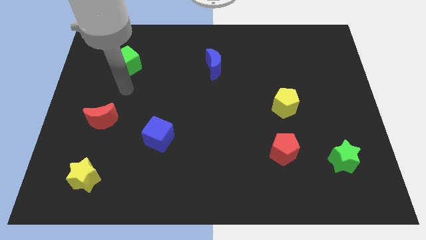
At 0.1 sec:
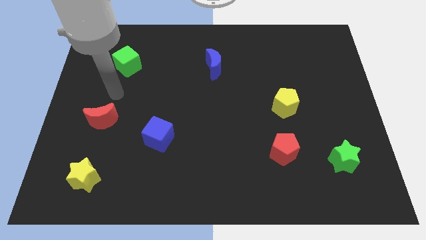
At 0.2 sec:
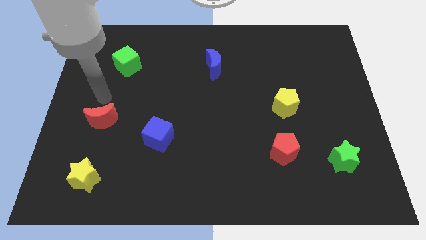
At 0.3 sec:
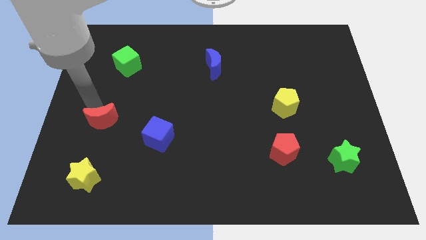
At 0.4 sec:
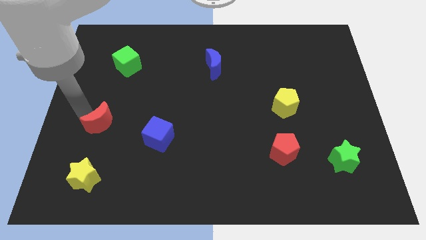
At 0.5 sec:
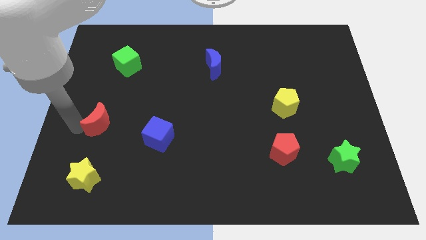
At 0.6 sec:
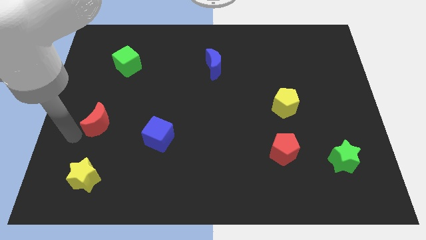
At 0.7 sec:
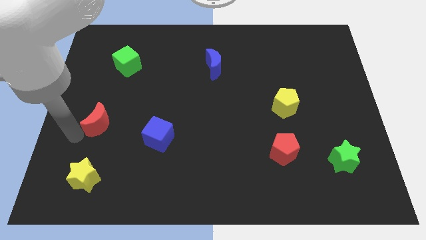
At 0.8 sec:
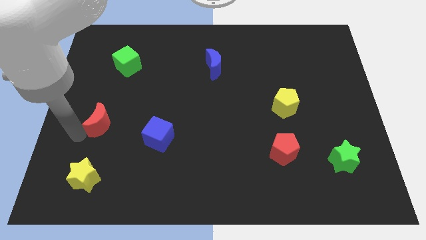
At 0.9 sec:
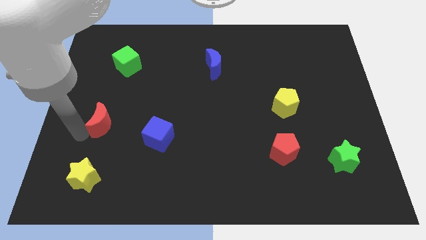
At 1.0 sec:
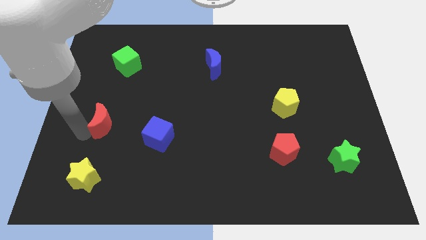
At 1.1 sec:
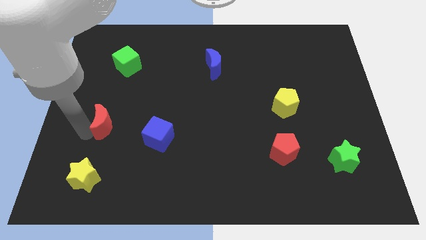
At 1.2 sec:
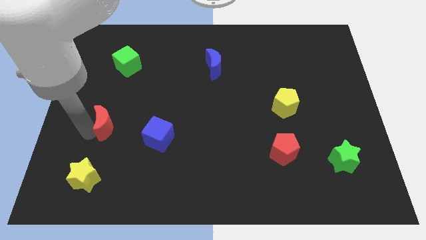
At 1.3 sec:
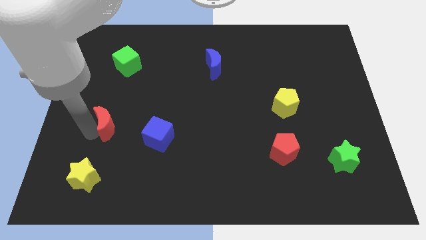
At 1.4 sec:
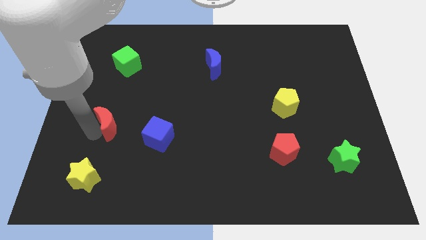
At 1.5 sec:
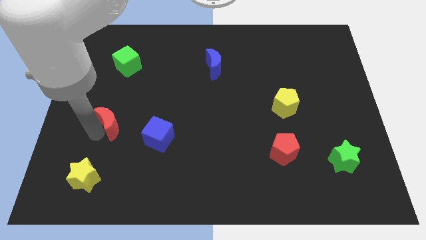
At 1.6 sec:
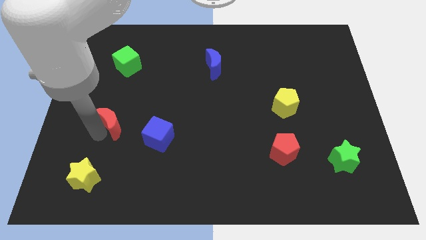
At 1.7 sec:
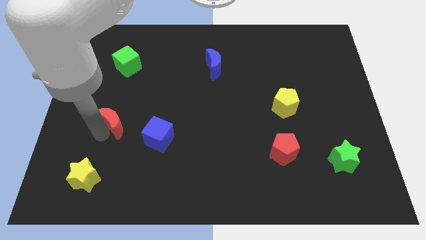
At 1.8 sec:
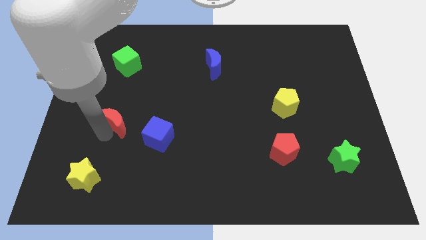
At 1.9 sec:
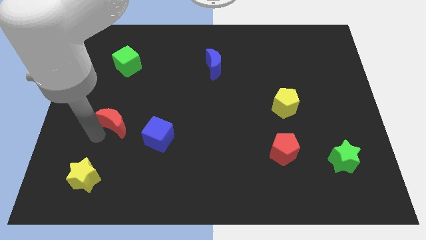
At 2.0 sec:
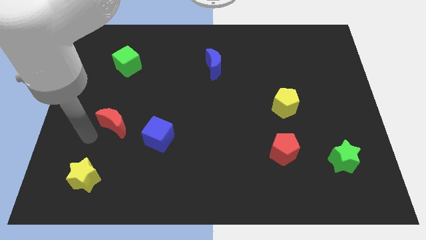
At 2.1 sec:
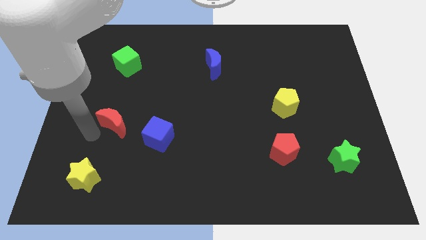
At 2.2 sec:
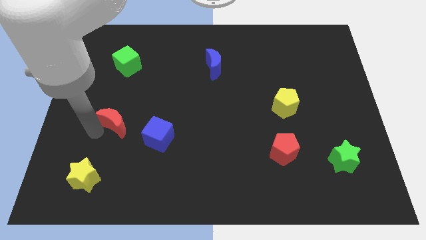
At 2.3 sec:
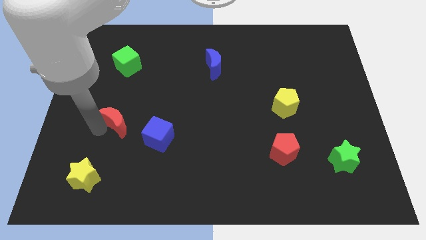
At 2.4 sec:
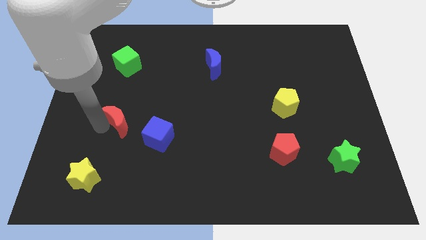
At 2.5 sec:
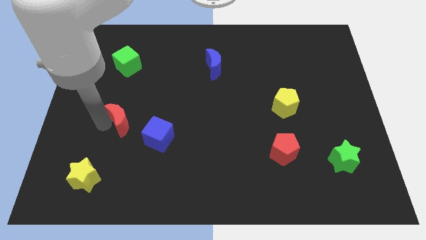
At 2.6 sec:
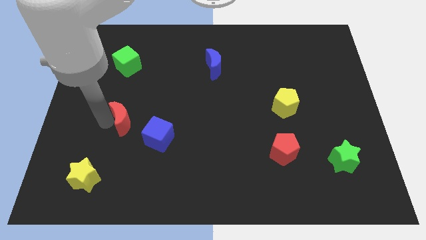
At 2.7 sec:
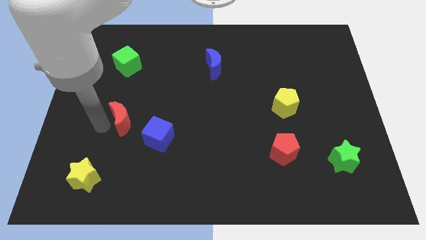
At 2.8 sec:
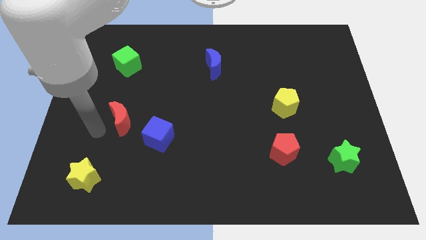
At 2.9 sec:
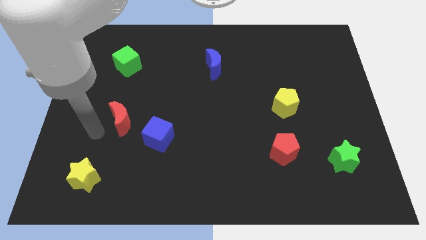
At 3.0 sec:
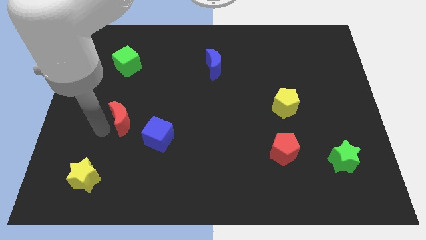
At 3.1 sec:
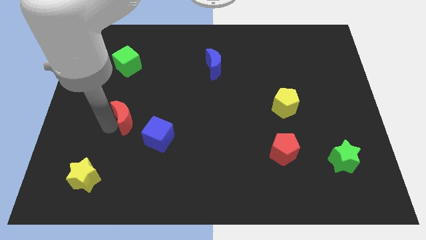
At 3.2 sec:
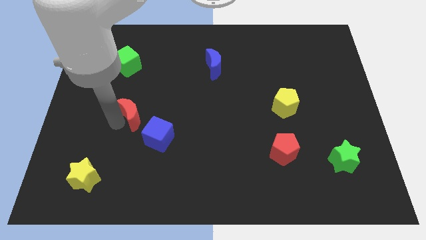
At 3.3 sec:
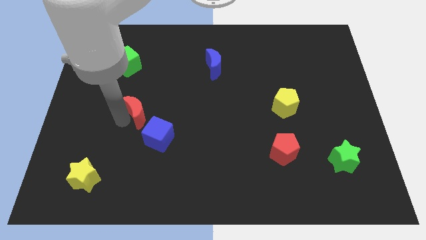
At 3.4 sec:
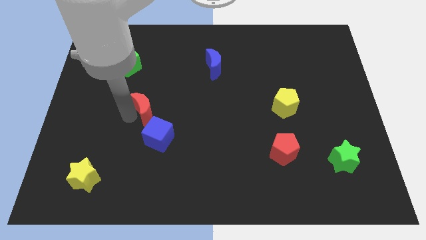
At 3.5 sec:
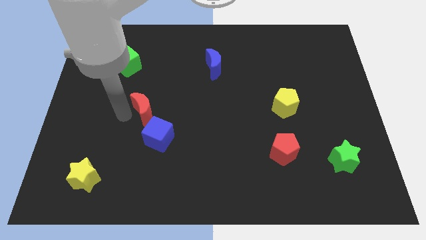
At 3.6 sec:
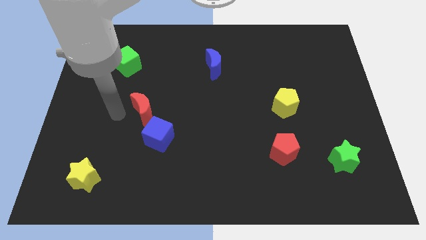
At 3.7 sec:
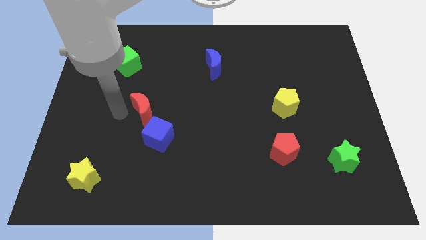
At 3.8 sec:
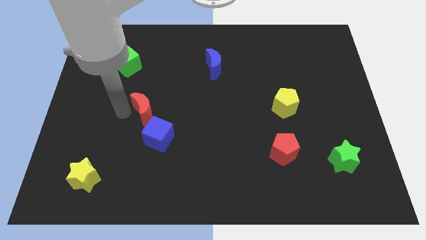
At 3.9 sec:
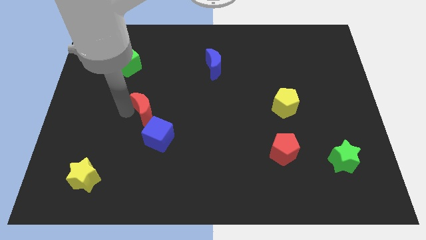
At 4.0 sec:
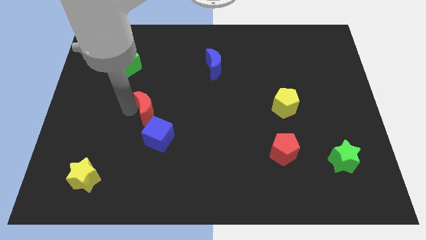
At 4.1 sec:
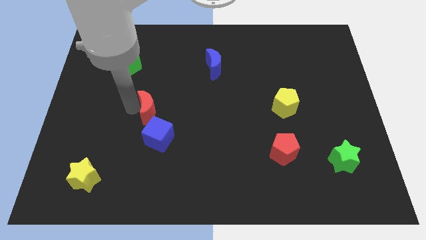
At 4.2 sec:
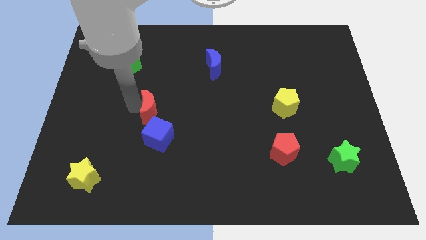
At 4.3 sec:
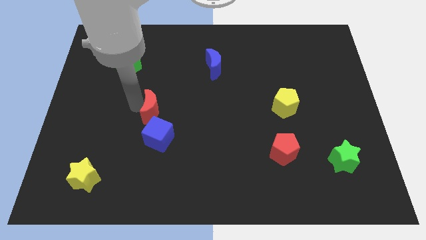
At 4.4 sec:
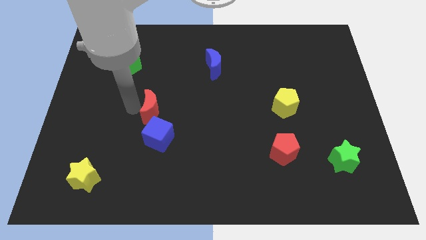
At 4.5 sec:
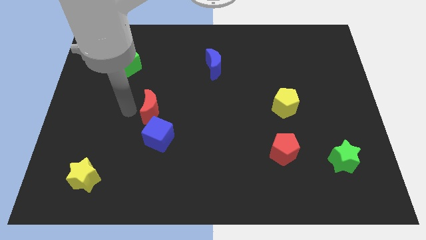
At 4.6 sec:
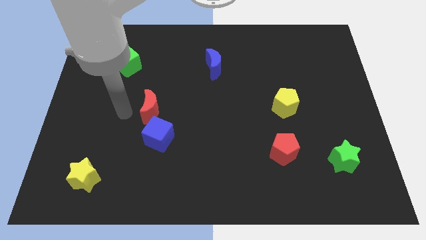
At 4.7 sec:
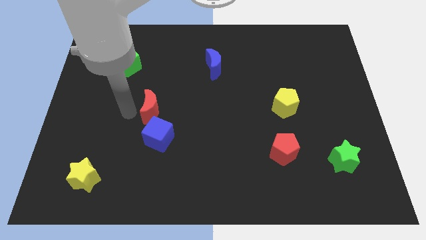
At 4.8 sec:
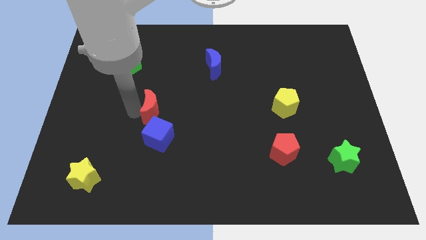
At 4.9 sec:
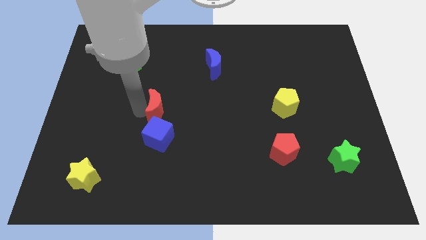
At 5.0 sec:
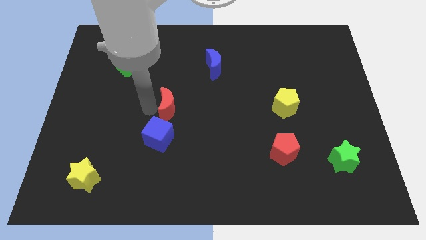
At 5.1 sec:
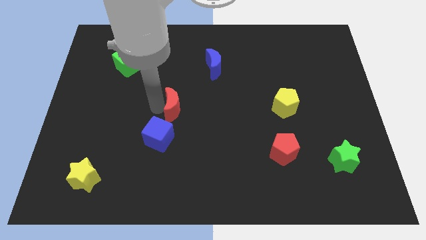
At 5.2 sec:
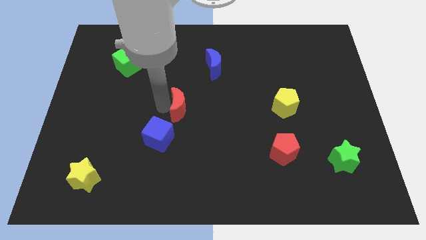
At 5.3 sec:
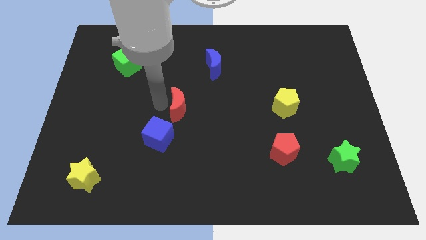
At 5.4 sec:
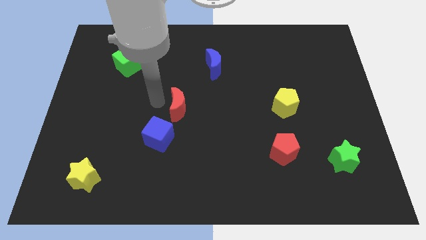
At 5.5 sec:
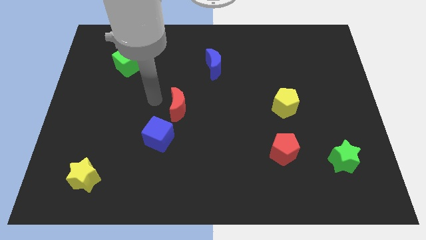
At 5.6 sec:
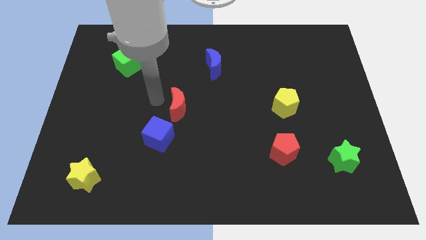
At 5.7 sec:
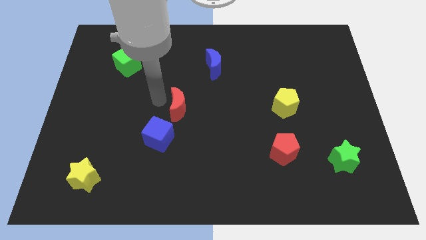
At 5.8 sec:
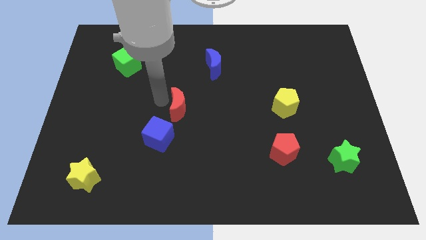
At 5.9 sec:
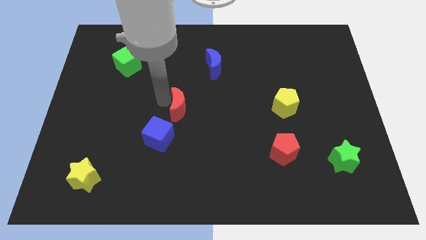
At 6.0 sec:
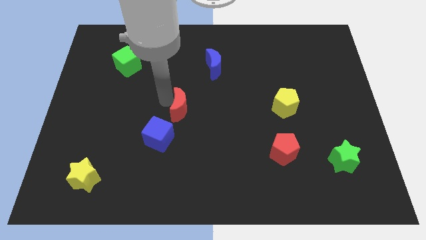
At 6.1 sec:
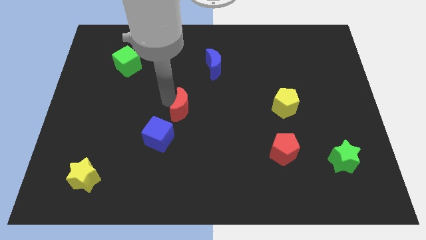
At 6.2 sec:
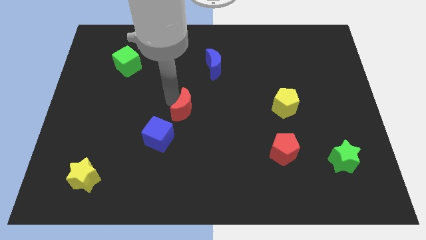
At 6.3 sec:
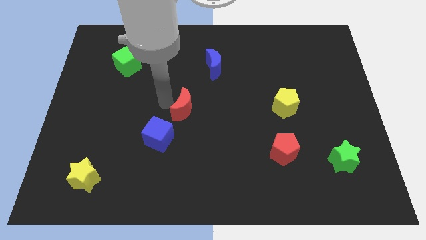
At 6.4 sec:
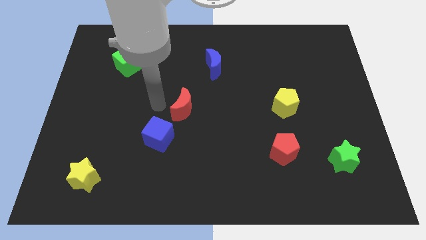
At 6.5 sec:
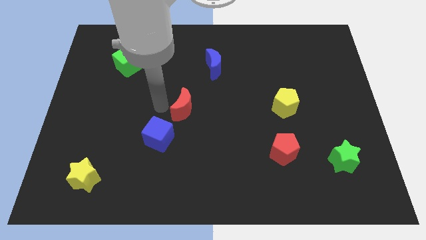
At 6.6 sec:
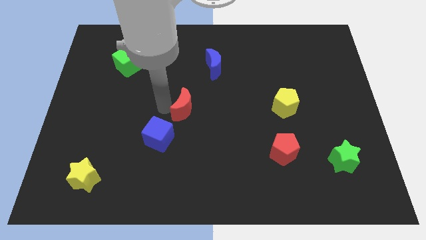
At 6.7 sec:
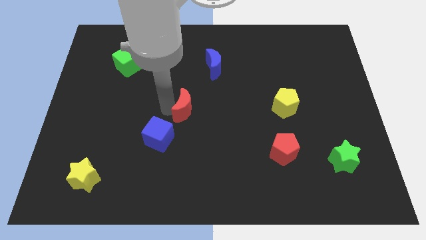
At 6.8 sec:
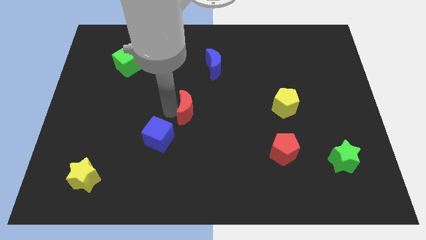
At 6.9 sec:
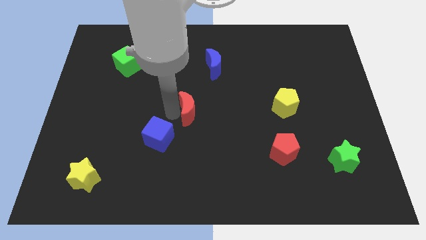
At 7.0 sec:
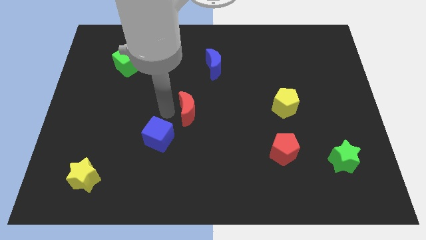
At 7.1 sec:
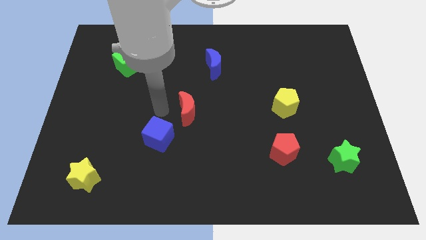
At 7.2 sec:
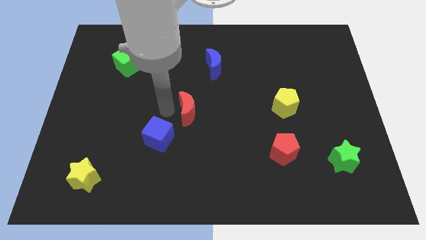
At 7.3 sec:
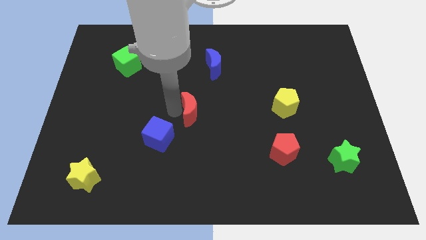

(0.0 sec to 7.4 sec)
move the red moon right

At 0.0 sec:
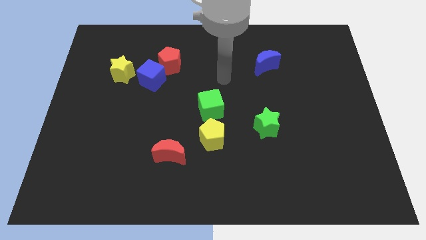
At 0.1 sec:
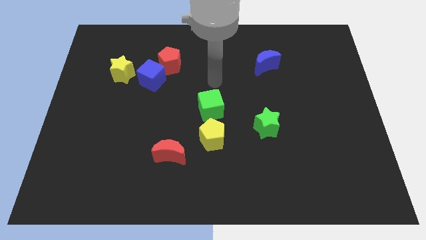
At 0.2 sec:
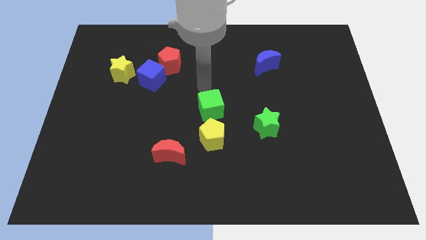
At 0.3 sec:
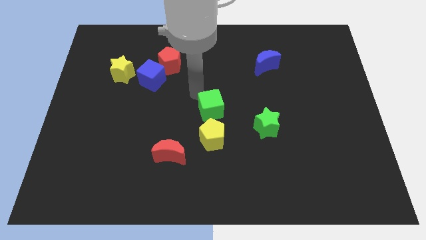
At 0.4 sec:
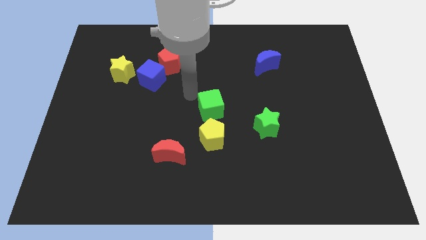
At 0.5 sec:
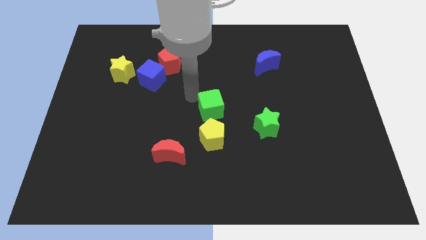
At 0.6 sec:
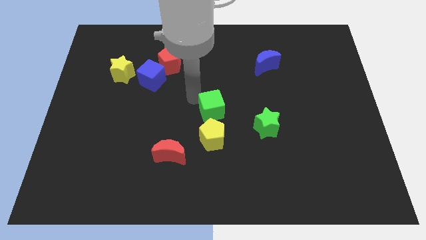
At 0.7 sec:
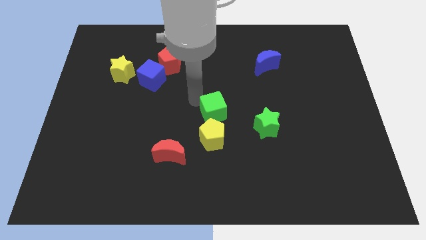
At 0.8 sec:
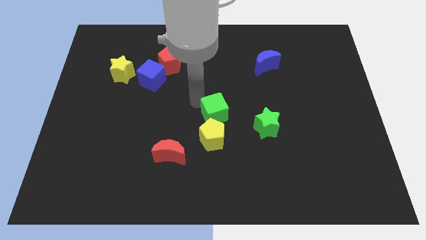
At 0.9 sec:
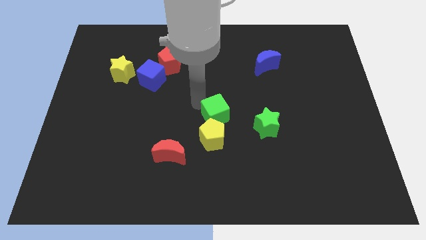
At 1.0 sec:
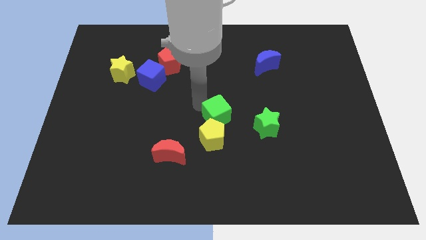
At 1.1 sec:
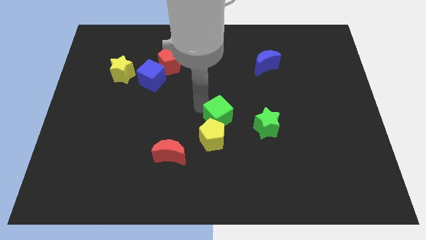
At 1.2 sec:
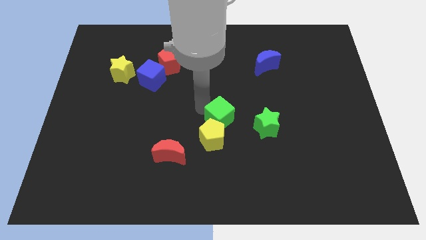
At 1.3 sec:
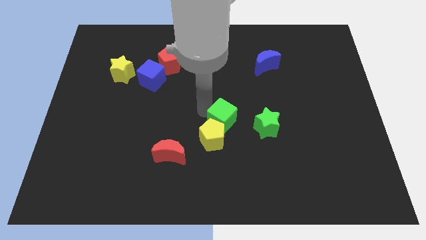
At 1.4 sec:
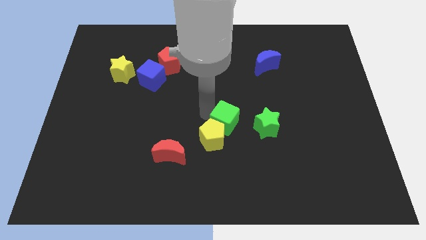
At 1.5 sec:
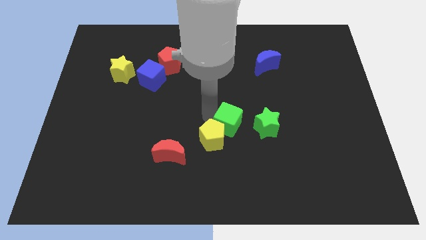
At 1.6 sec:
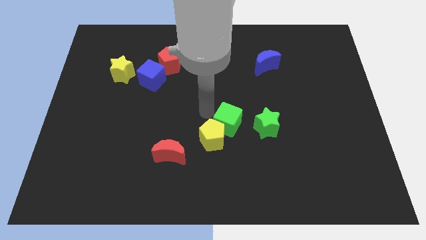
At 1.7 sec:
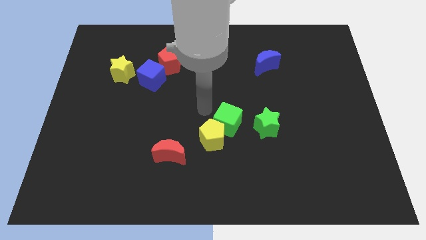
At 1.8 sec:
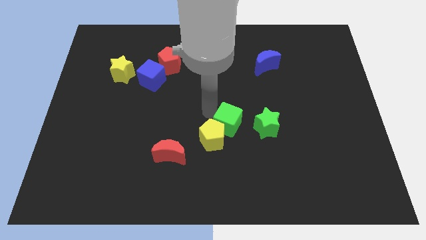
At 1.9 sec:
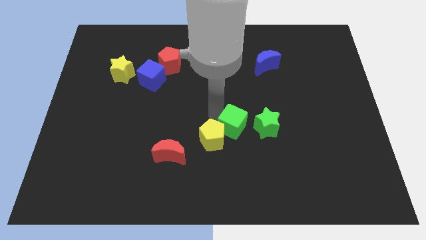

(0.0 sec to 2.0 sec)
push the green cube downwards and right diagonally slightly
